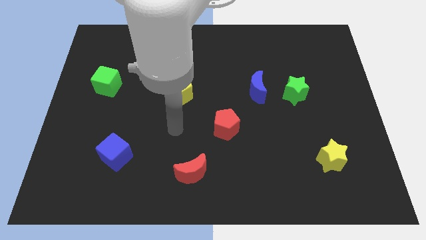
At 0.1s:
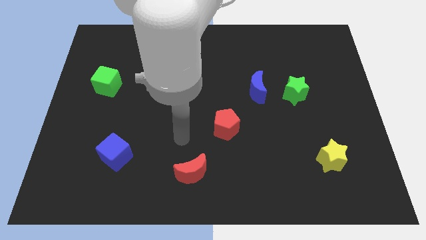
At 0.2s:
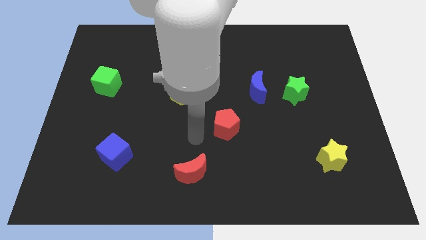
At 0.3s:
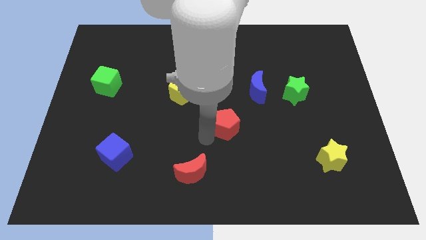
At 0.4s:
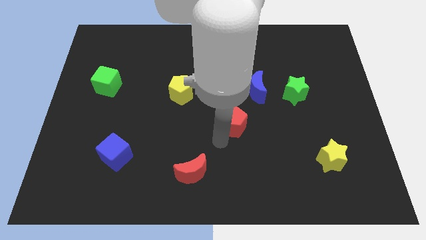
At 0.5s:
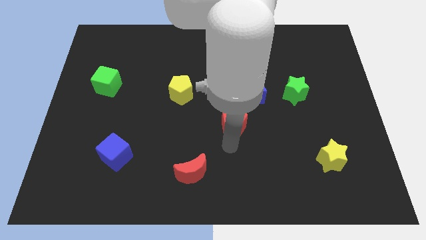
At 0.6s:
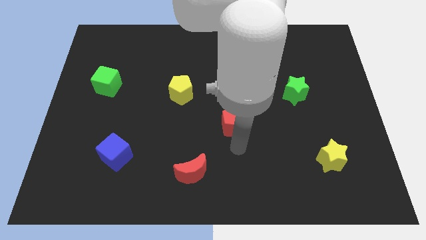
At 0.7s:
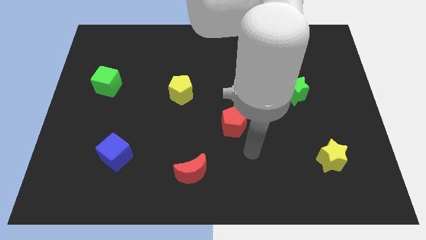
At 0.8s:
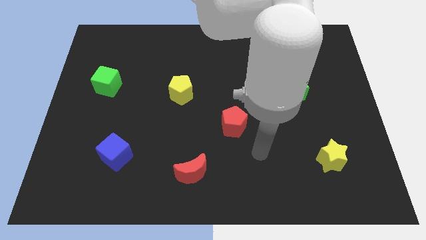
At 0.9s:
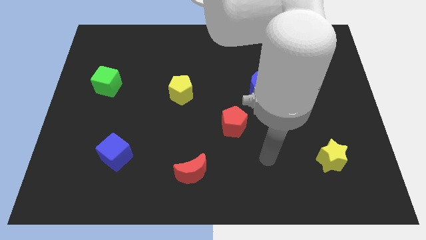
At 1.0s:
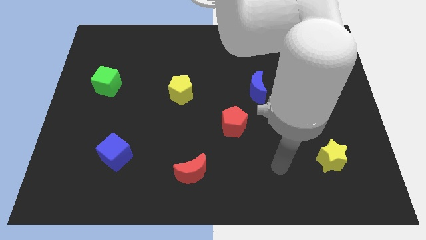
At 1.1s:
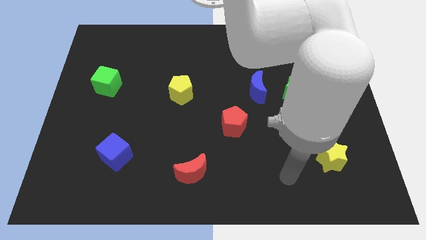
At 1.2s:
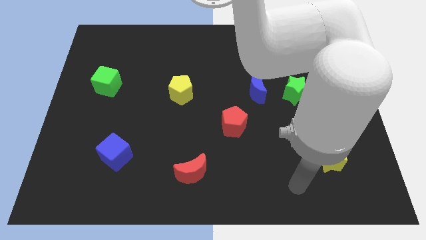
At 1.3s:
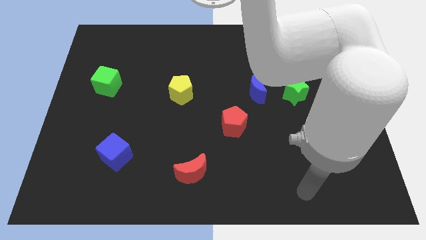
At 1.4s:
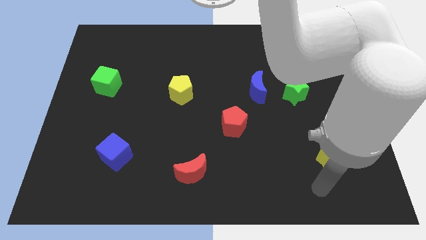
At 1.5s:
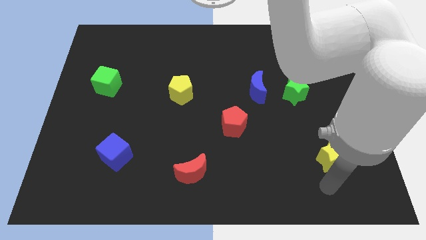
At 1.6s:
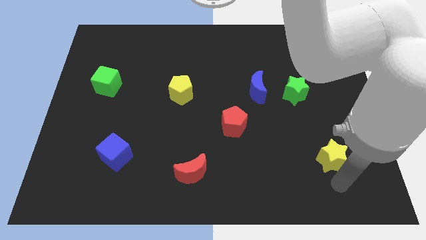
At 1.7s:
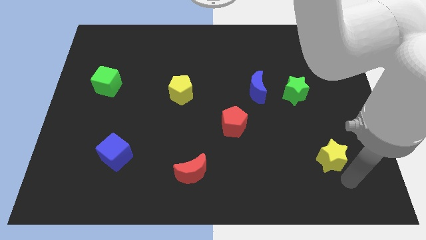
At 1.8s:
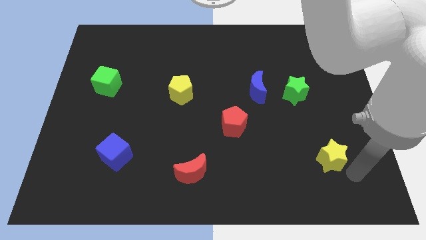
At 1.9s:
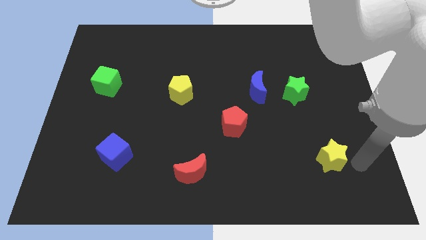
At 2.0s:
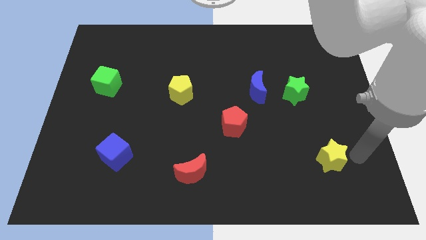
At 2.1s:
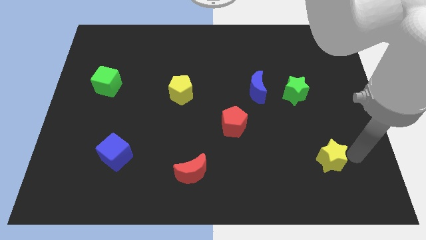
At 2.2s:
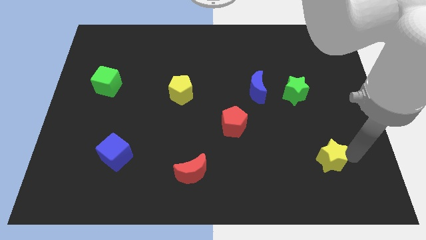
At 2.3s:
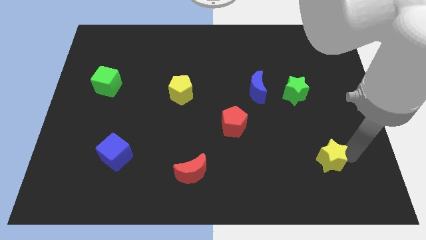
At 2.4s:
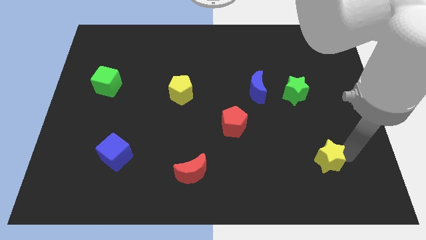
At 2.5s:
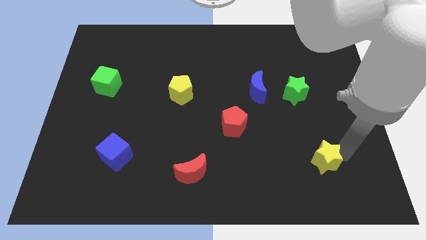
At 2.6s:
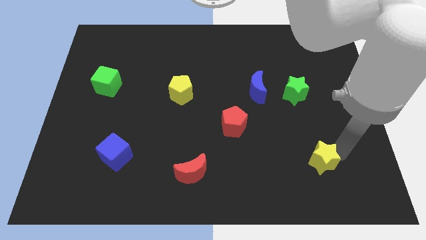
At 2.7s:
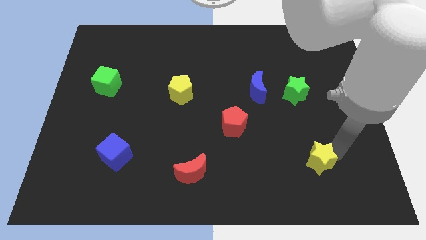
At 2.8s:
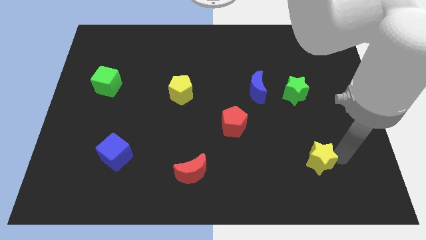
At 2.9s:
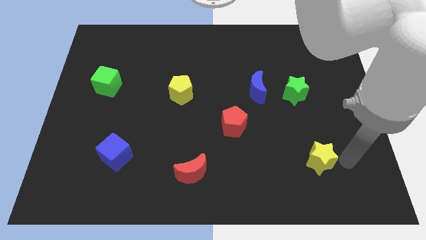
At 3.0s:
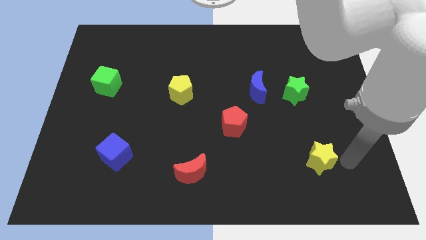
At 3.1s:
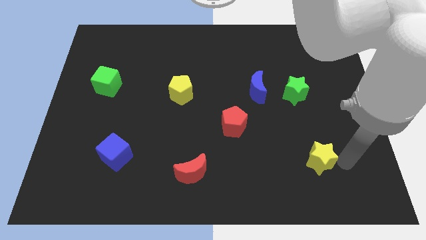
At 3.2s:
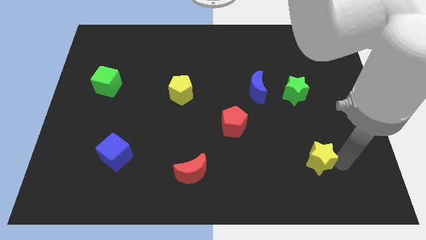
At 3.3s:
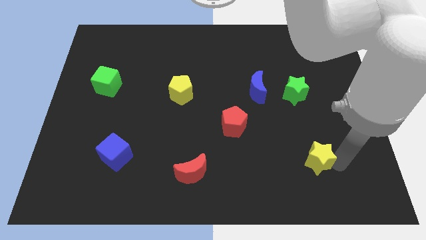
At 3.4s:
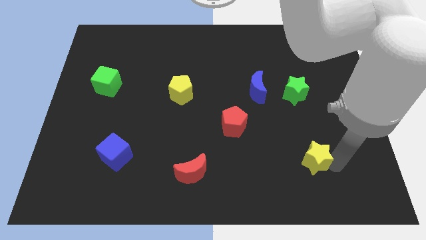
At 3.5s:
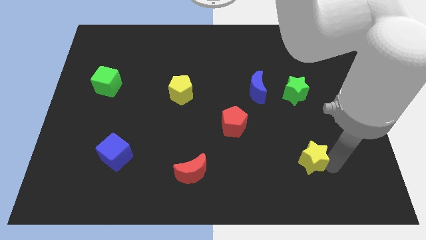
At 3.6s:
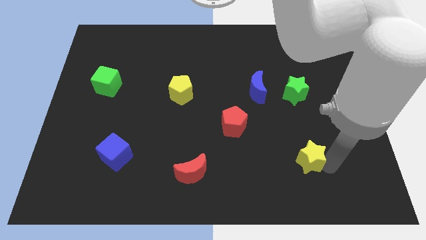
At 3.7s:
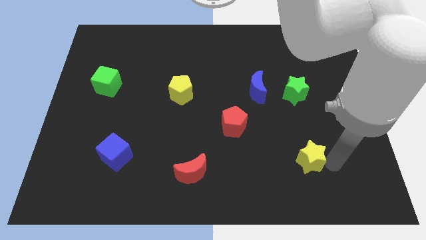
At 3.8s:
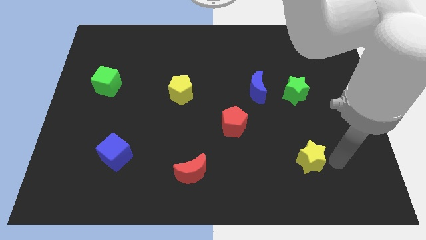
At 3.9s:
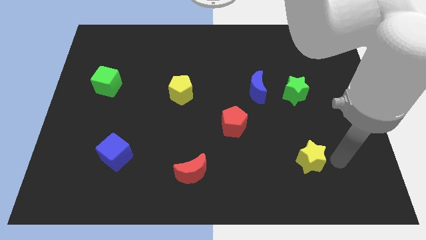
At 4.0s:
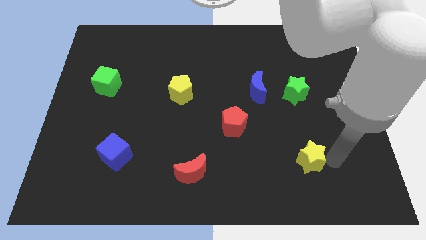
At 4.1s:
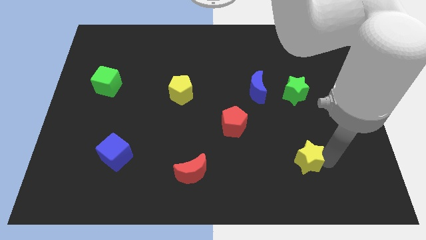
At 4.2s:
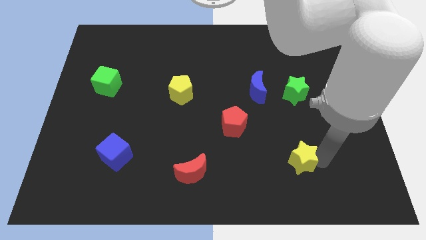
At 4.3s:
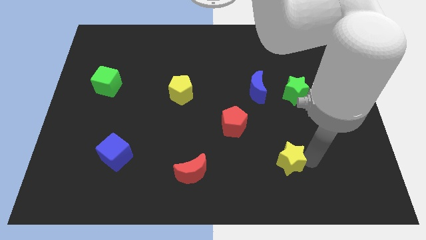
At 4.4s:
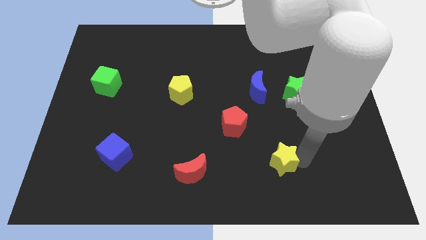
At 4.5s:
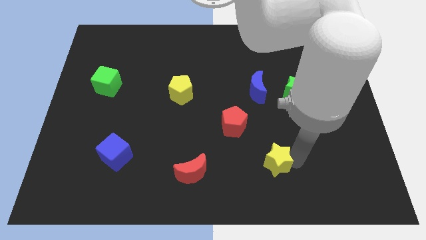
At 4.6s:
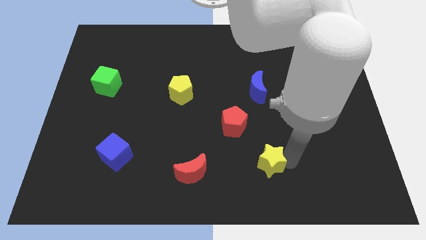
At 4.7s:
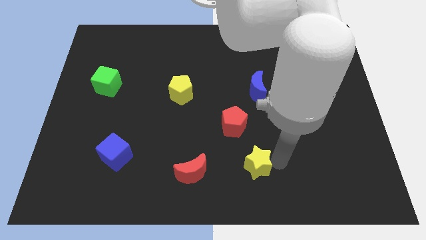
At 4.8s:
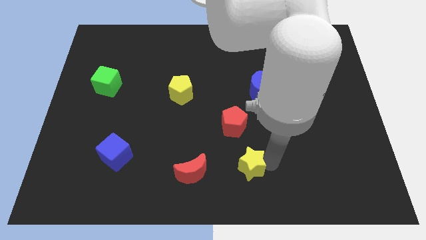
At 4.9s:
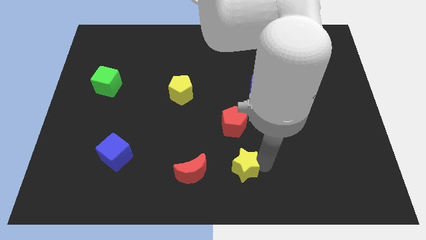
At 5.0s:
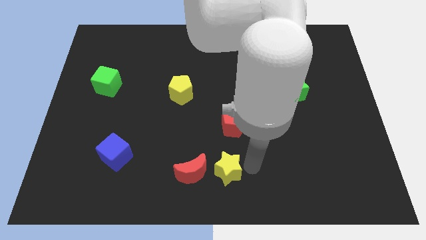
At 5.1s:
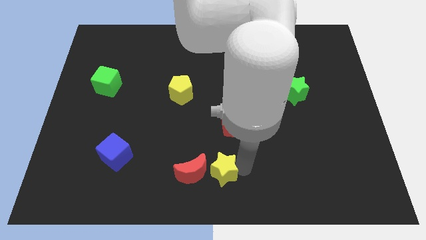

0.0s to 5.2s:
push the yellow star close to the red moon

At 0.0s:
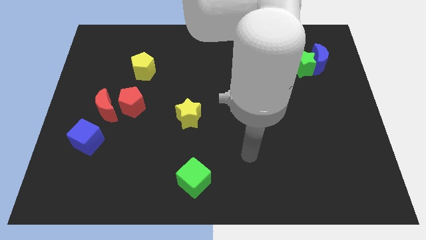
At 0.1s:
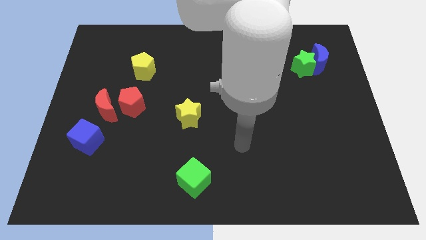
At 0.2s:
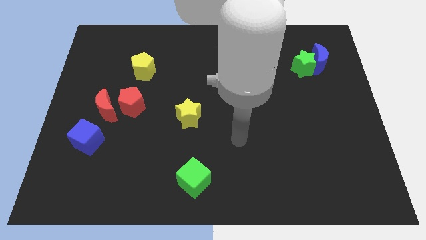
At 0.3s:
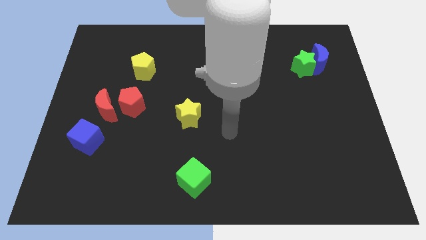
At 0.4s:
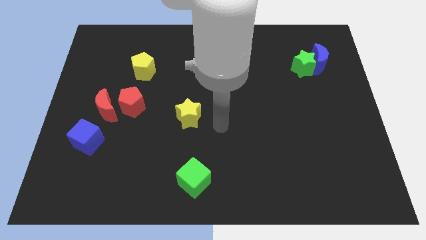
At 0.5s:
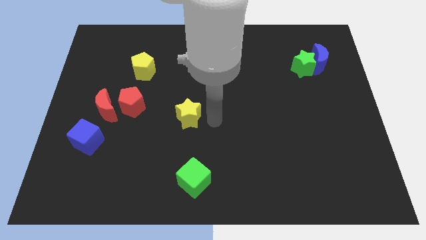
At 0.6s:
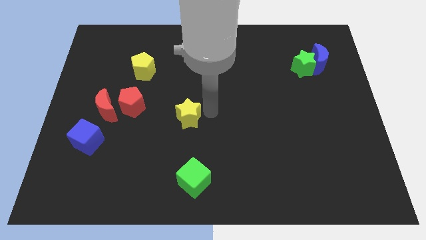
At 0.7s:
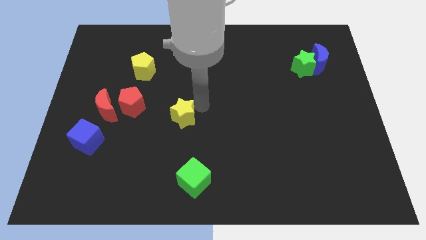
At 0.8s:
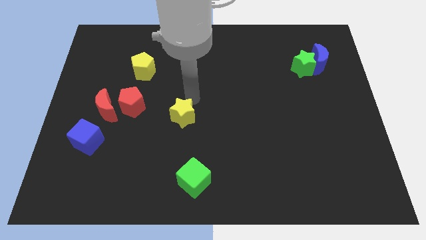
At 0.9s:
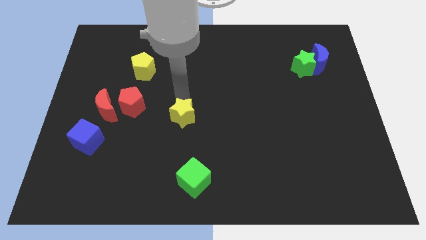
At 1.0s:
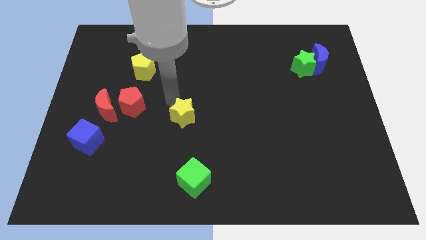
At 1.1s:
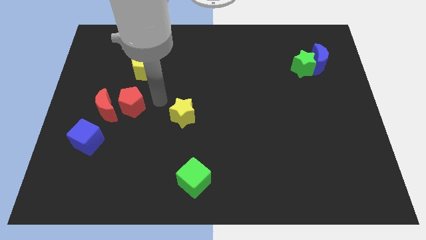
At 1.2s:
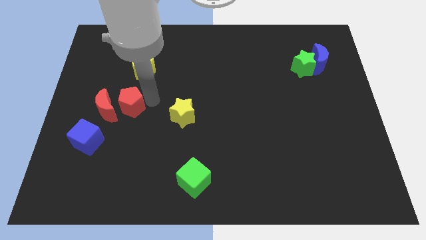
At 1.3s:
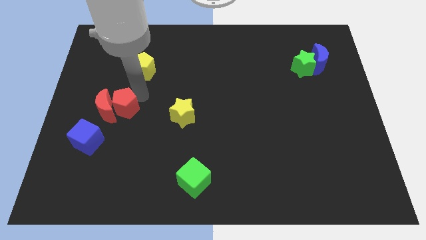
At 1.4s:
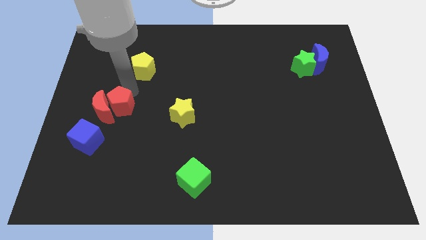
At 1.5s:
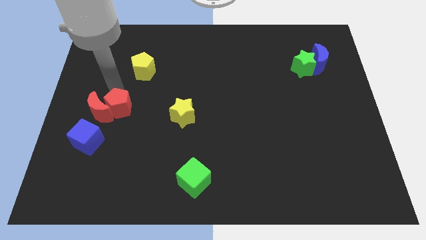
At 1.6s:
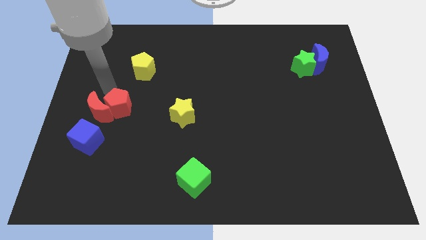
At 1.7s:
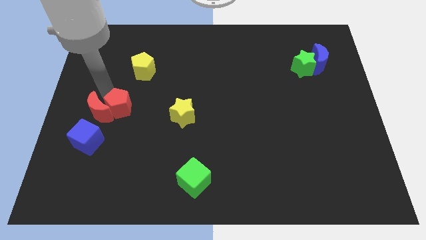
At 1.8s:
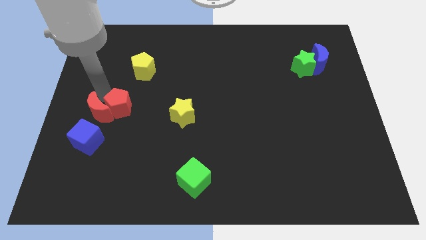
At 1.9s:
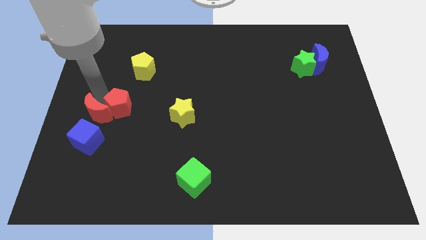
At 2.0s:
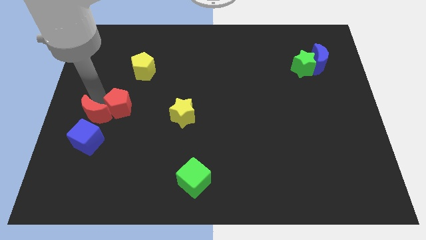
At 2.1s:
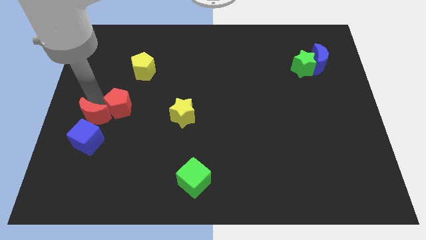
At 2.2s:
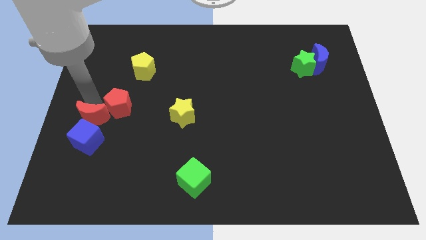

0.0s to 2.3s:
slide the red moon close to the blue cube
